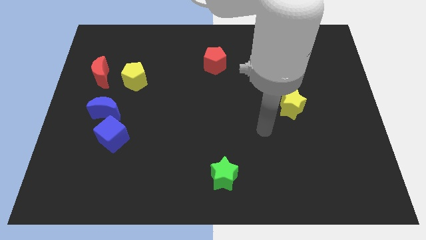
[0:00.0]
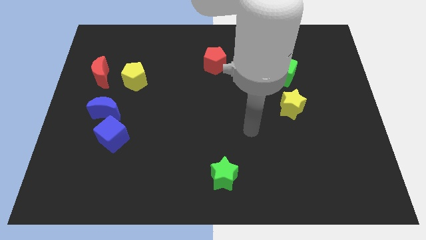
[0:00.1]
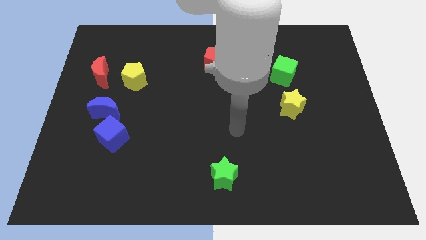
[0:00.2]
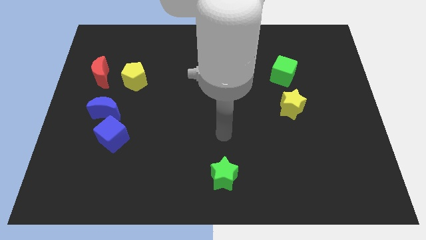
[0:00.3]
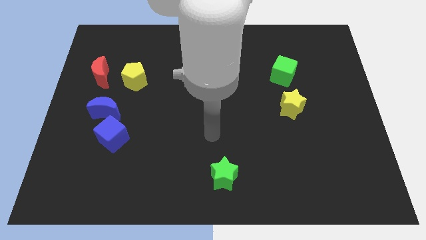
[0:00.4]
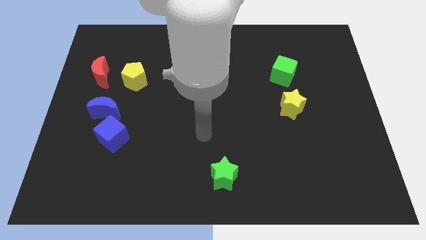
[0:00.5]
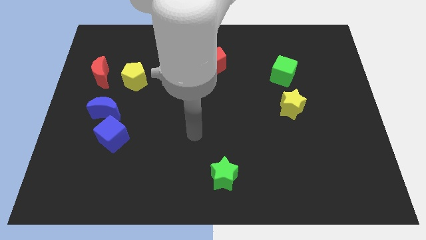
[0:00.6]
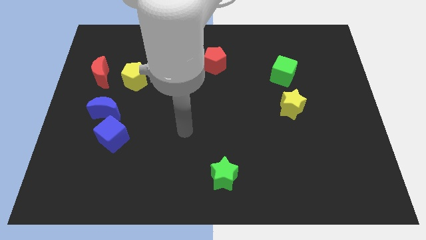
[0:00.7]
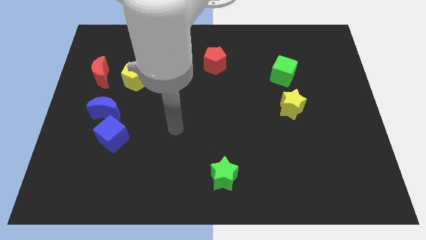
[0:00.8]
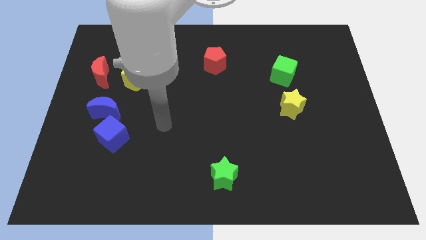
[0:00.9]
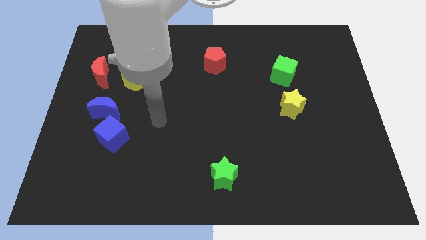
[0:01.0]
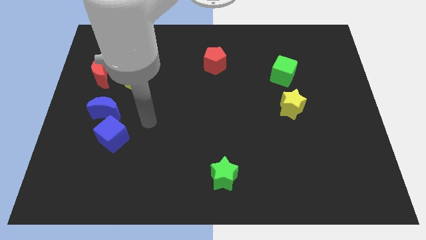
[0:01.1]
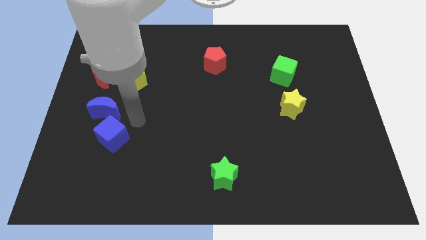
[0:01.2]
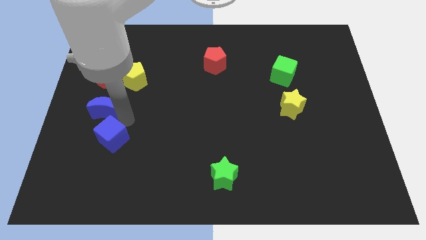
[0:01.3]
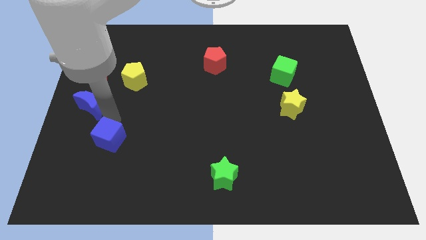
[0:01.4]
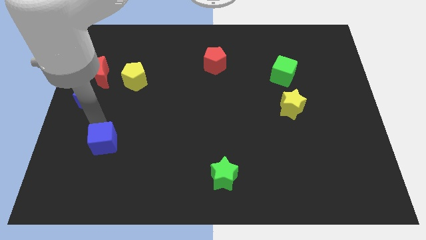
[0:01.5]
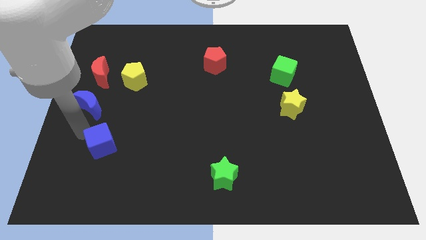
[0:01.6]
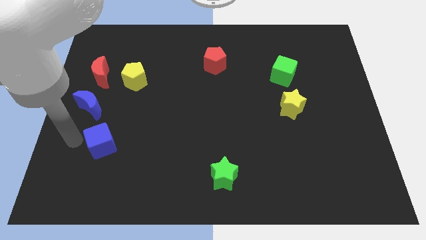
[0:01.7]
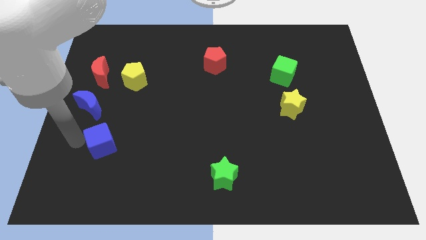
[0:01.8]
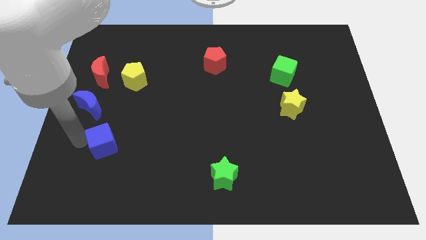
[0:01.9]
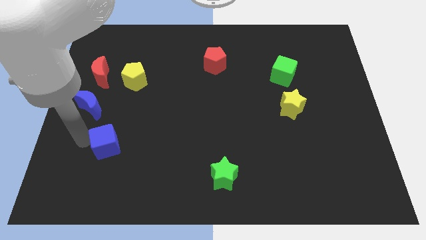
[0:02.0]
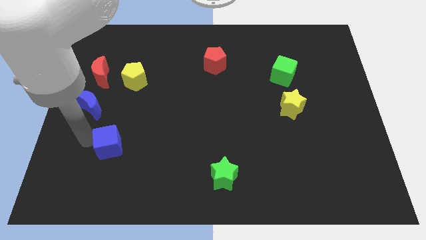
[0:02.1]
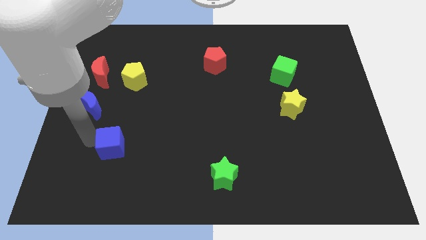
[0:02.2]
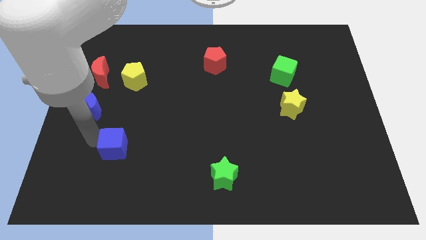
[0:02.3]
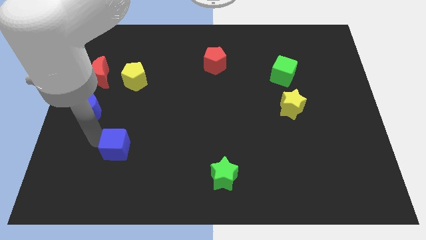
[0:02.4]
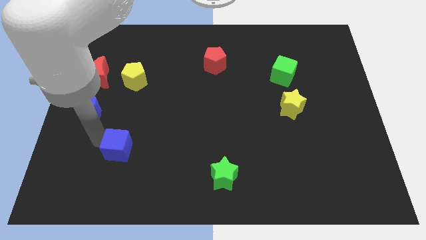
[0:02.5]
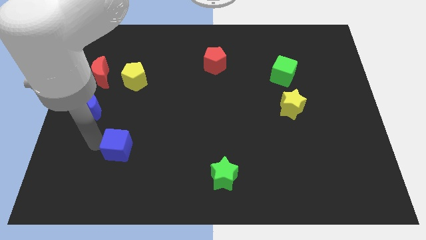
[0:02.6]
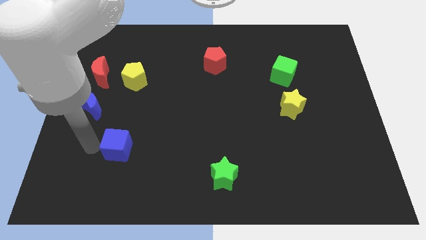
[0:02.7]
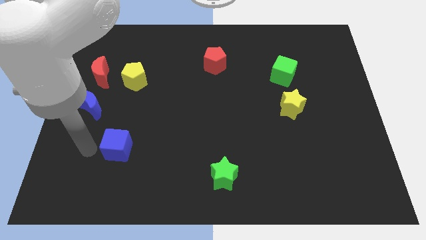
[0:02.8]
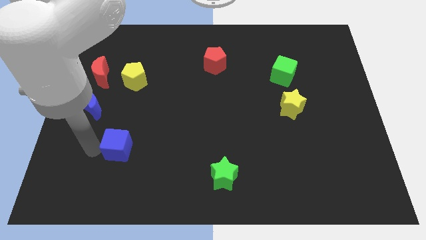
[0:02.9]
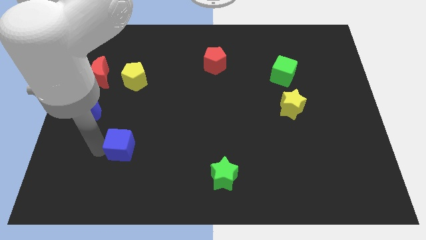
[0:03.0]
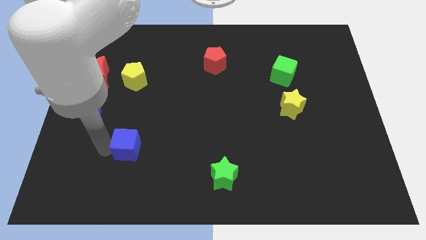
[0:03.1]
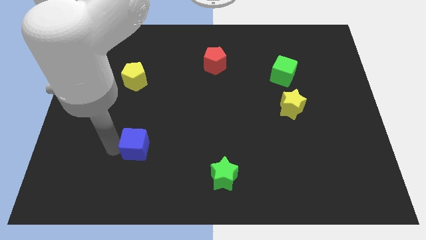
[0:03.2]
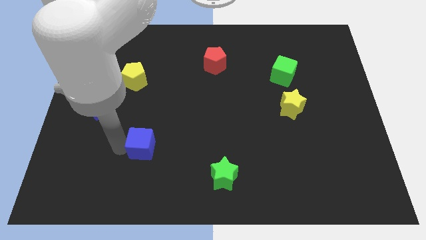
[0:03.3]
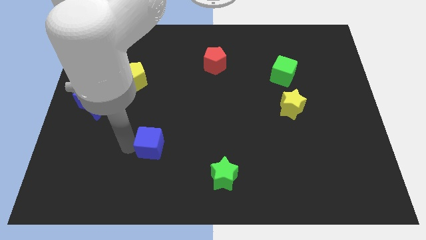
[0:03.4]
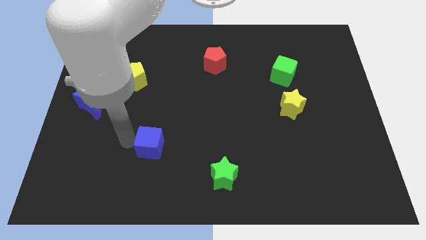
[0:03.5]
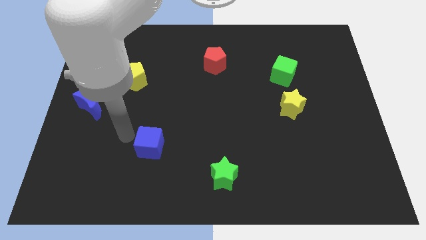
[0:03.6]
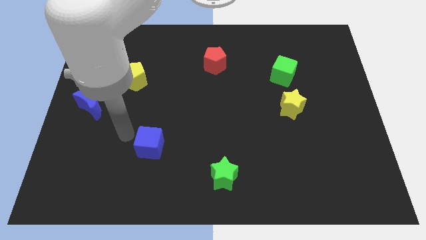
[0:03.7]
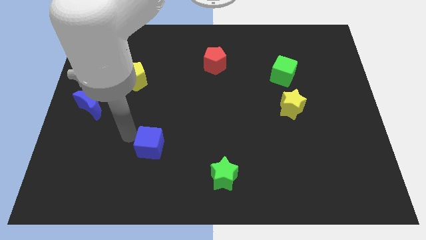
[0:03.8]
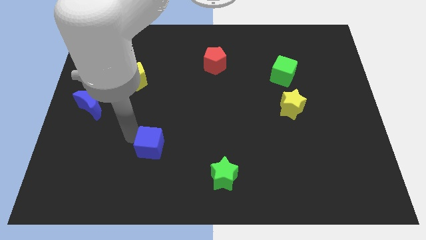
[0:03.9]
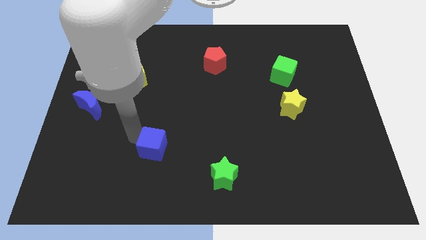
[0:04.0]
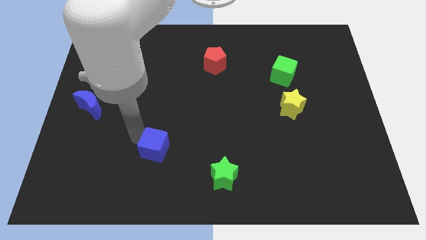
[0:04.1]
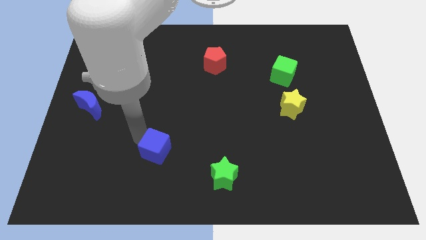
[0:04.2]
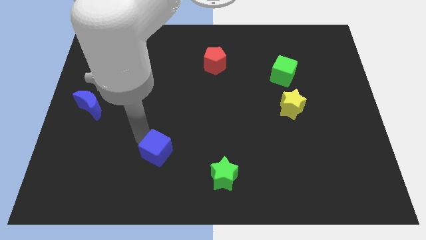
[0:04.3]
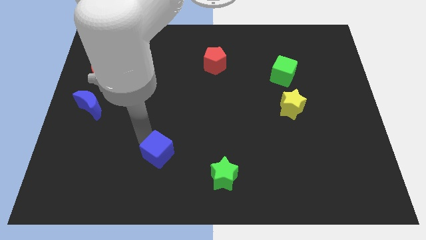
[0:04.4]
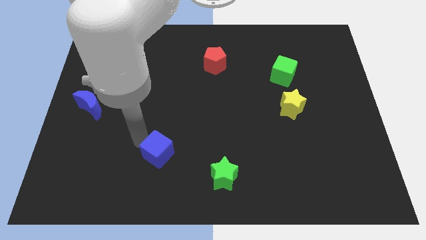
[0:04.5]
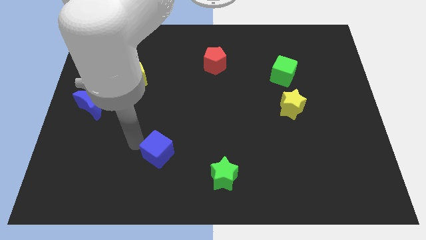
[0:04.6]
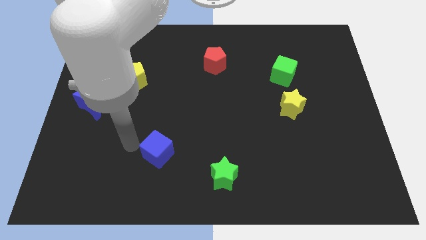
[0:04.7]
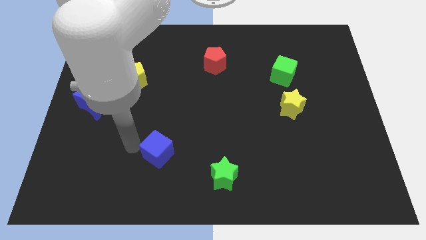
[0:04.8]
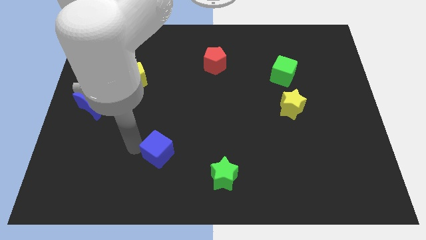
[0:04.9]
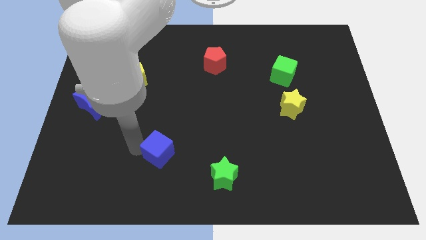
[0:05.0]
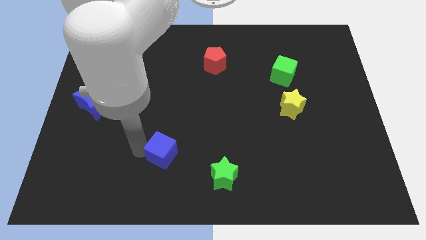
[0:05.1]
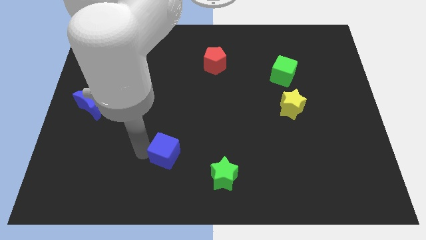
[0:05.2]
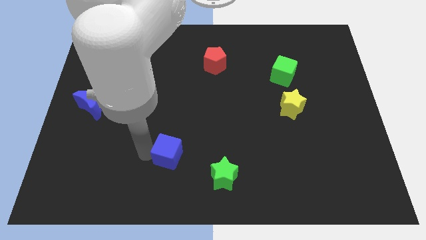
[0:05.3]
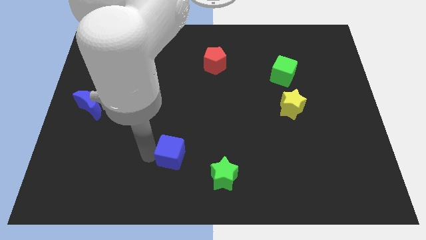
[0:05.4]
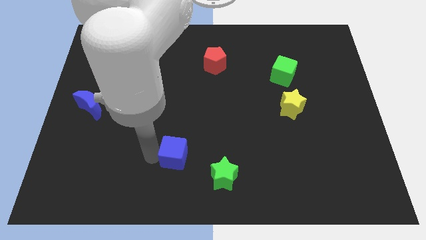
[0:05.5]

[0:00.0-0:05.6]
put the blue cube to the top left of the green star

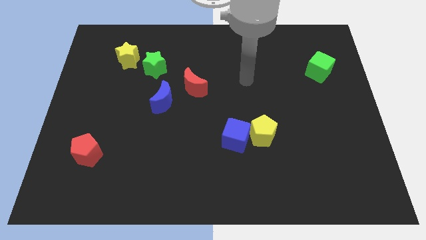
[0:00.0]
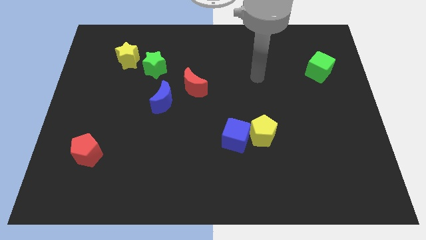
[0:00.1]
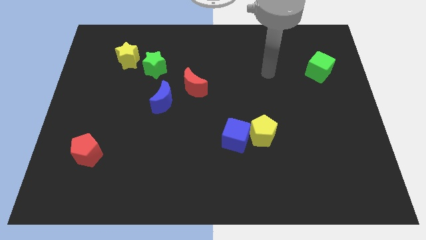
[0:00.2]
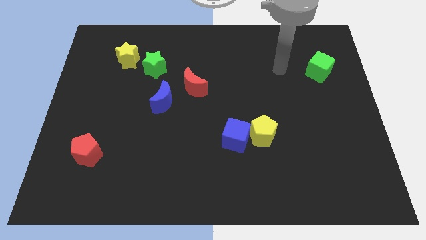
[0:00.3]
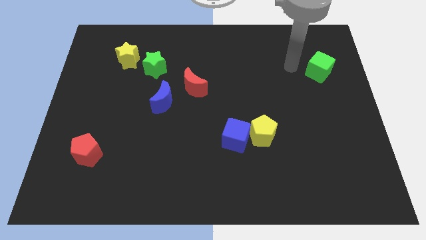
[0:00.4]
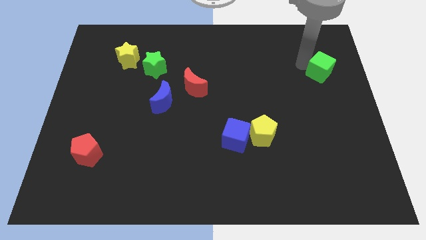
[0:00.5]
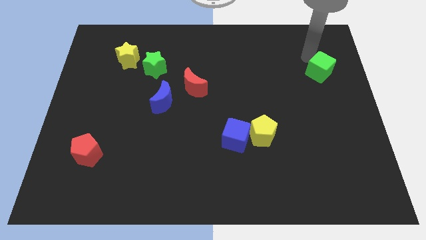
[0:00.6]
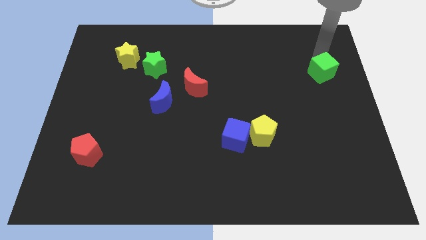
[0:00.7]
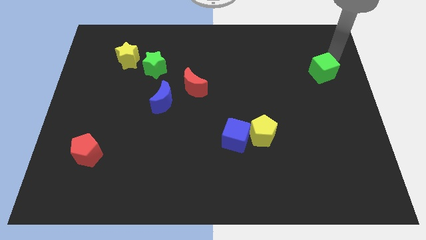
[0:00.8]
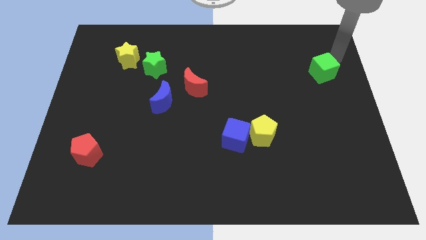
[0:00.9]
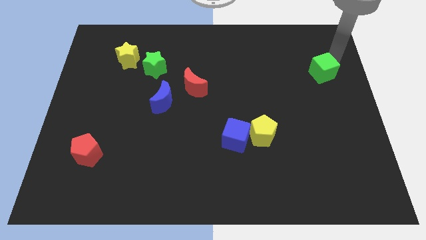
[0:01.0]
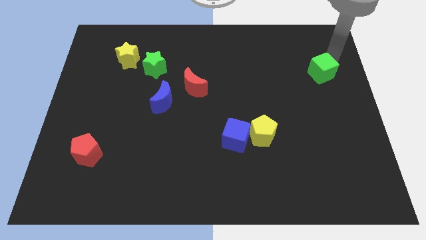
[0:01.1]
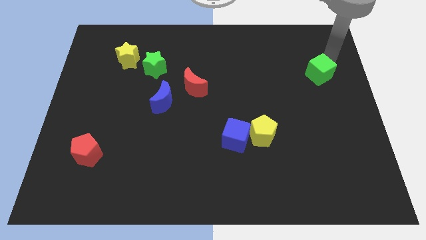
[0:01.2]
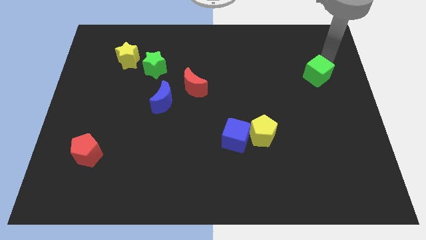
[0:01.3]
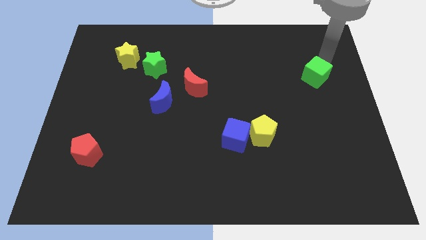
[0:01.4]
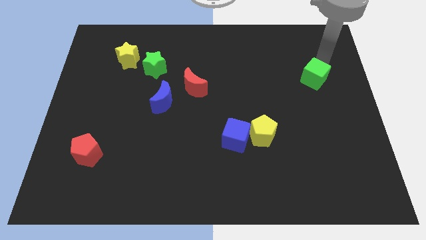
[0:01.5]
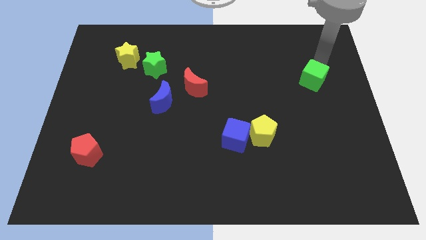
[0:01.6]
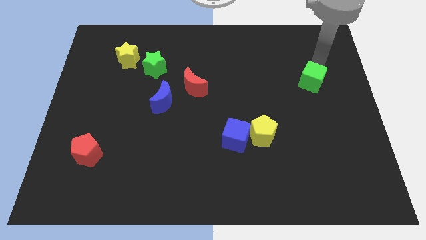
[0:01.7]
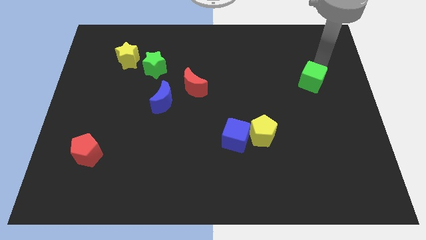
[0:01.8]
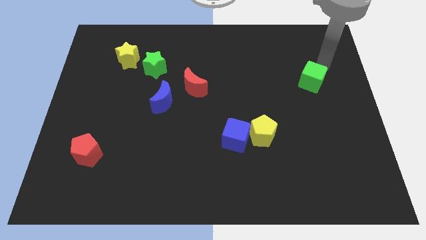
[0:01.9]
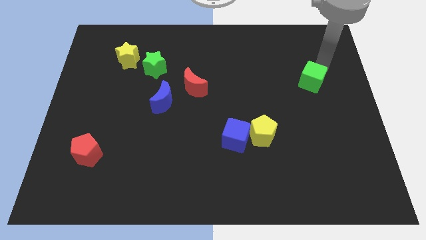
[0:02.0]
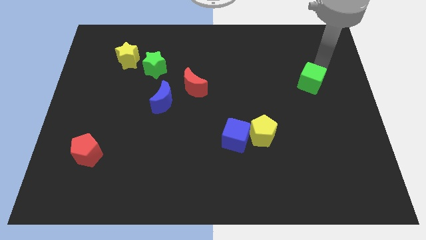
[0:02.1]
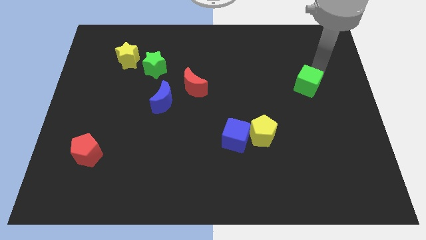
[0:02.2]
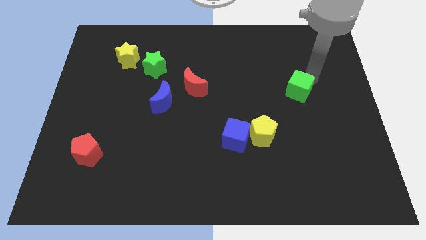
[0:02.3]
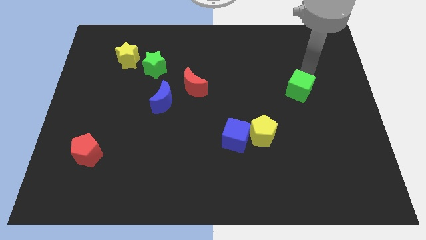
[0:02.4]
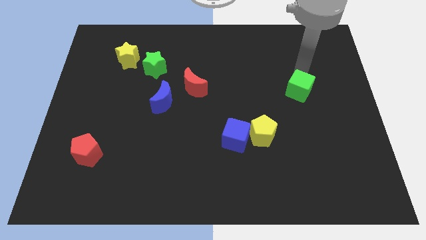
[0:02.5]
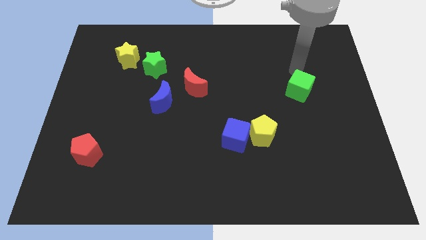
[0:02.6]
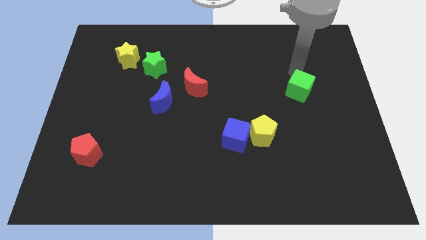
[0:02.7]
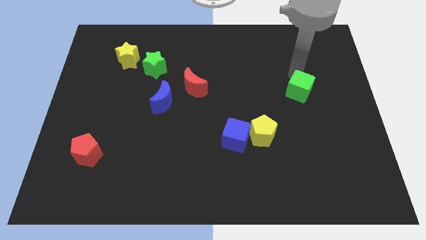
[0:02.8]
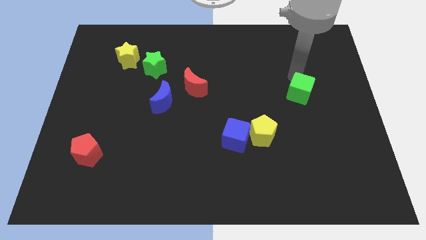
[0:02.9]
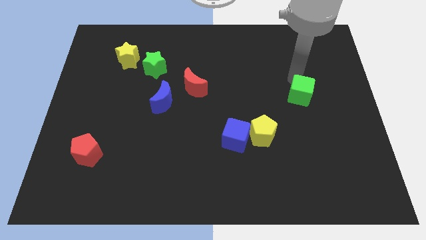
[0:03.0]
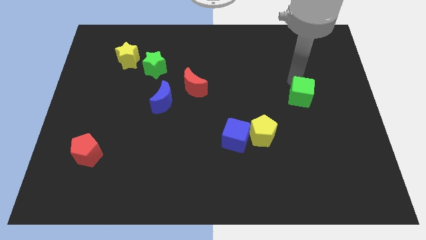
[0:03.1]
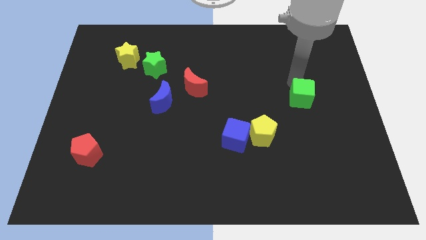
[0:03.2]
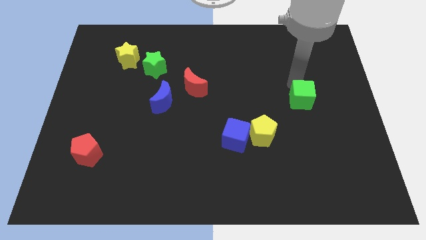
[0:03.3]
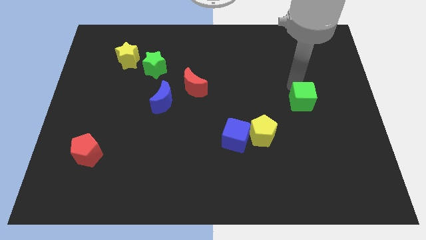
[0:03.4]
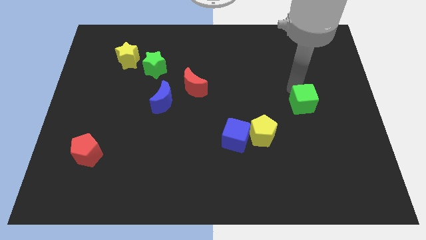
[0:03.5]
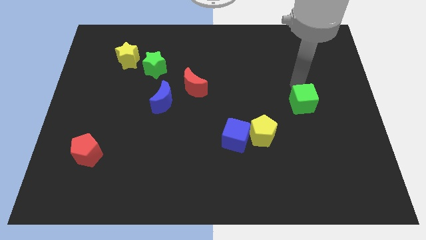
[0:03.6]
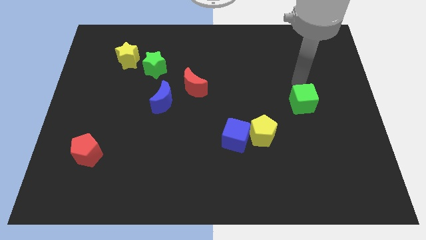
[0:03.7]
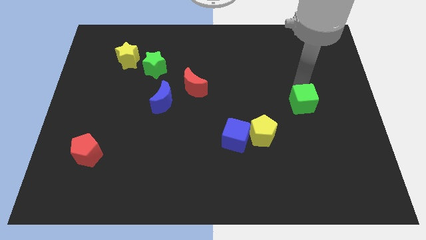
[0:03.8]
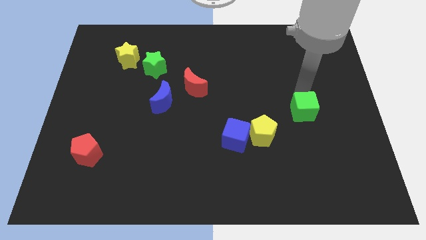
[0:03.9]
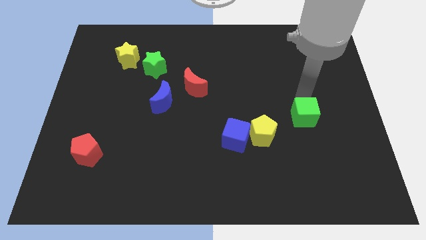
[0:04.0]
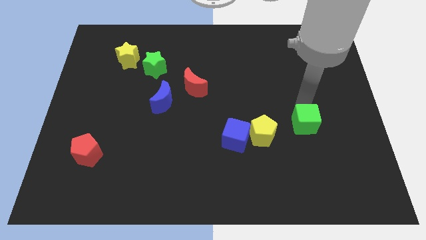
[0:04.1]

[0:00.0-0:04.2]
push the green cube to the right of the yellow pentagon
